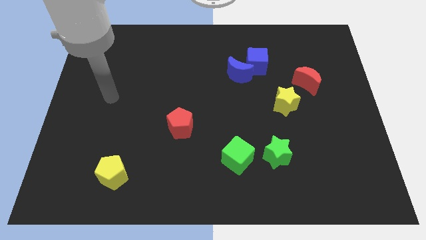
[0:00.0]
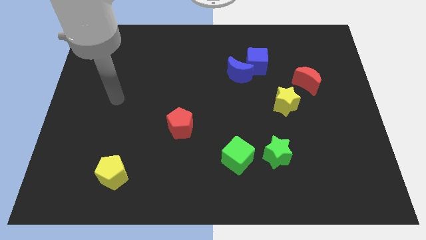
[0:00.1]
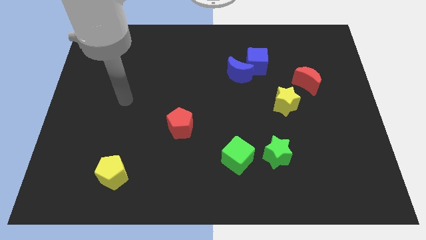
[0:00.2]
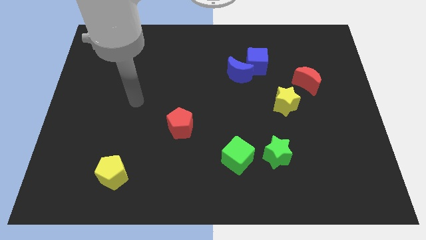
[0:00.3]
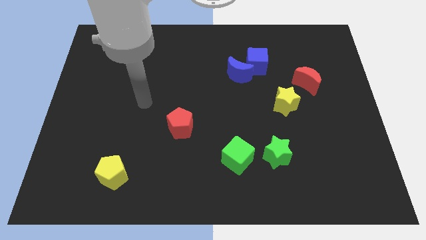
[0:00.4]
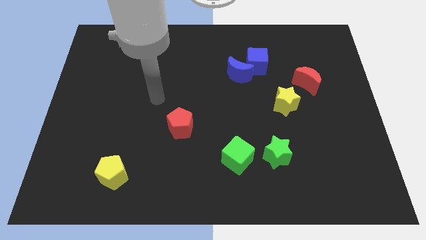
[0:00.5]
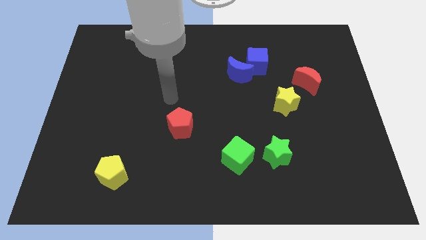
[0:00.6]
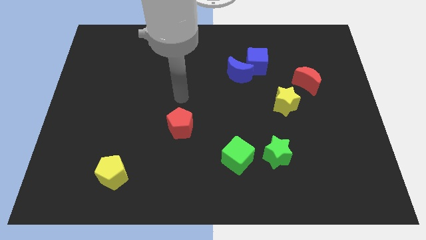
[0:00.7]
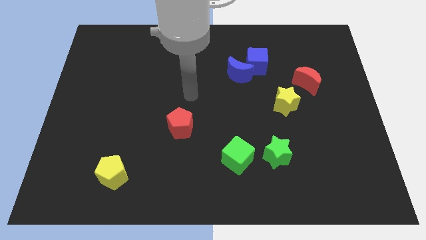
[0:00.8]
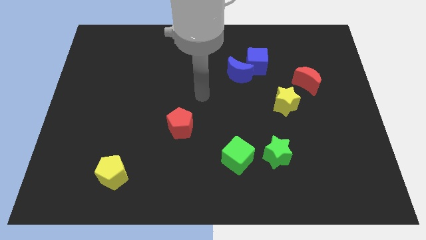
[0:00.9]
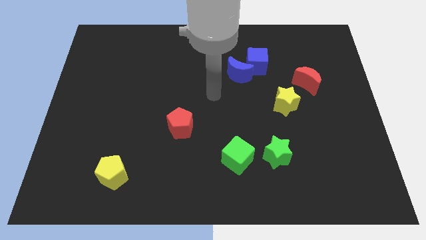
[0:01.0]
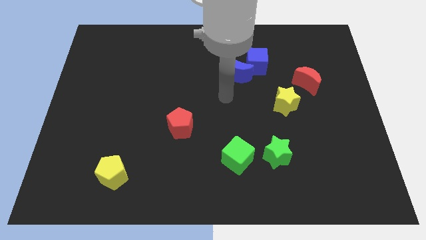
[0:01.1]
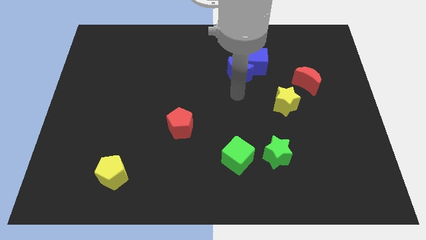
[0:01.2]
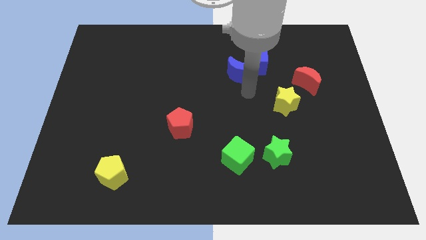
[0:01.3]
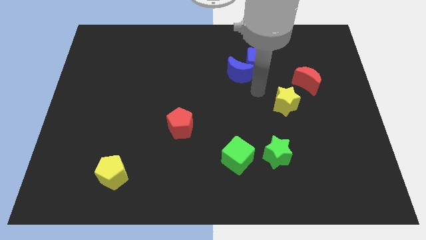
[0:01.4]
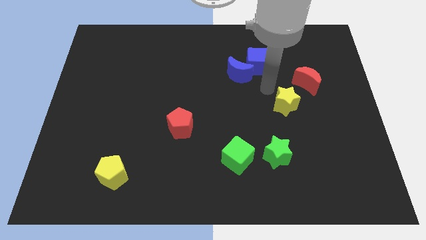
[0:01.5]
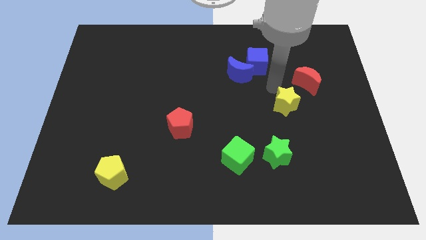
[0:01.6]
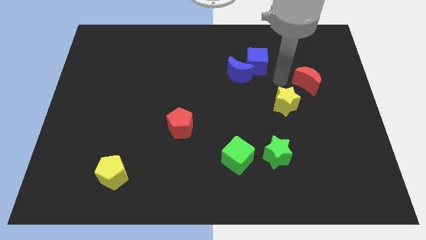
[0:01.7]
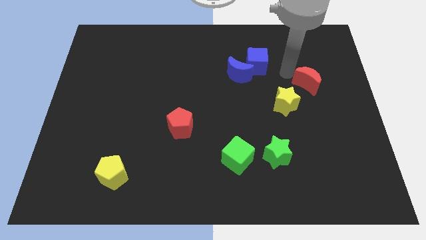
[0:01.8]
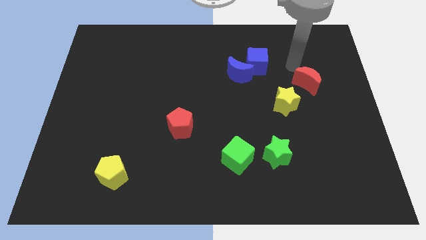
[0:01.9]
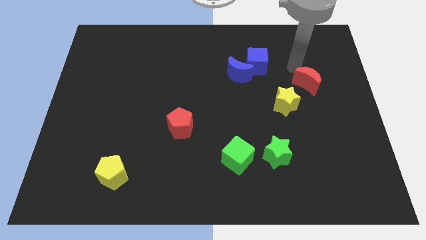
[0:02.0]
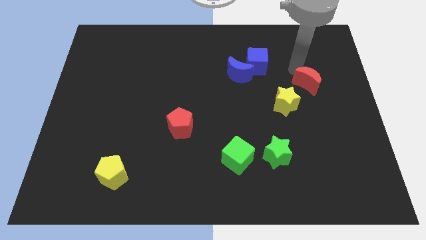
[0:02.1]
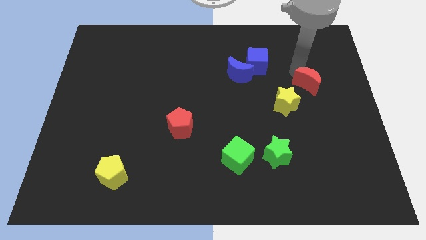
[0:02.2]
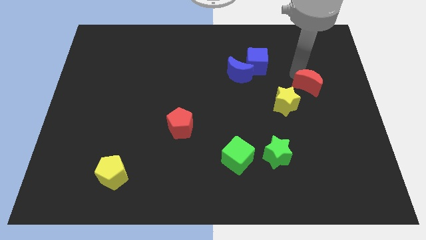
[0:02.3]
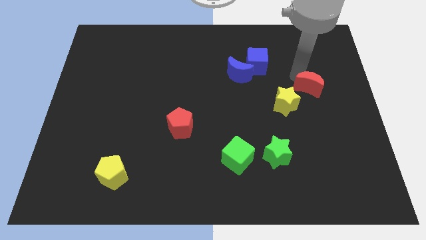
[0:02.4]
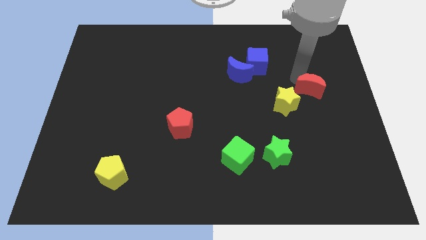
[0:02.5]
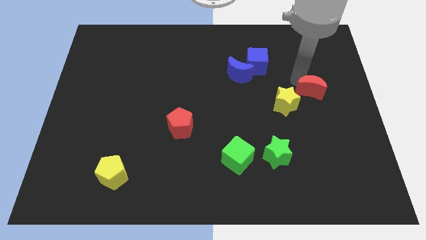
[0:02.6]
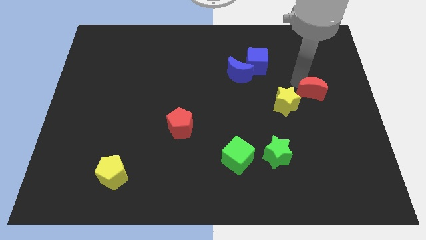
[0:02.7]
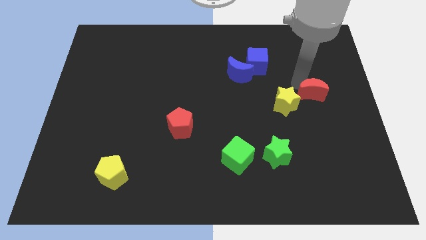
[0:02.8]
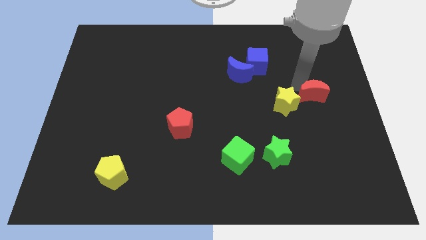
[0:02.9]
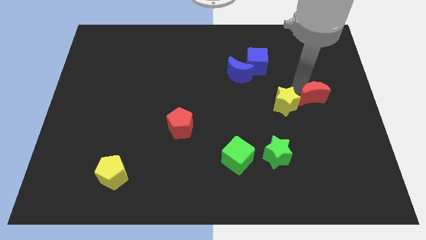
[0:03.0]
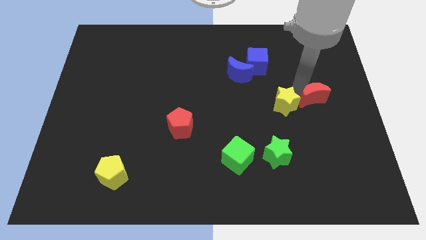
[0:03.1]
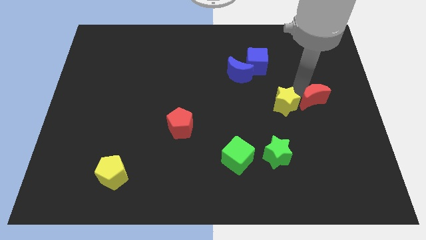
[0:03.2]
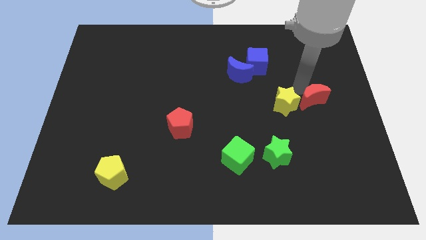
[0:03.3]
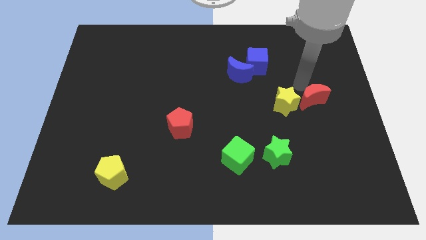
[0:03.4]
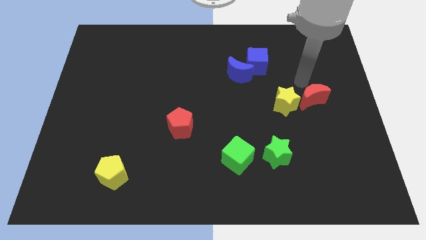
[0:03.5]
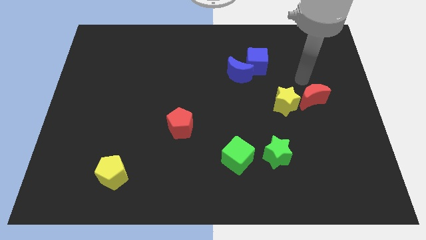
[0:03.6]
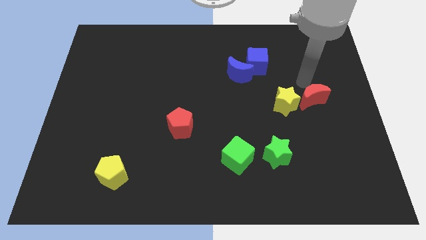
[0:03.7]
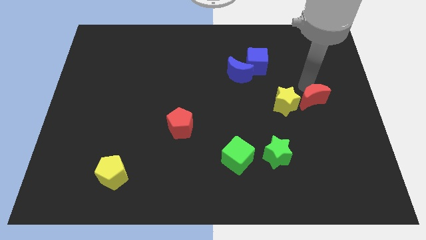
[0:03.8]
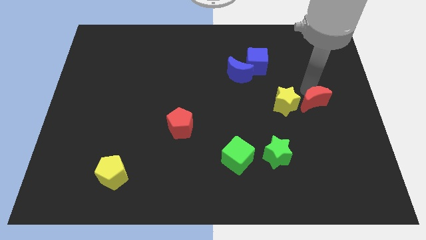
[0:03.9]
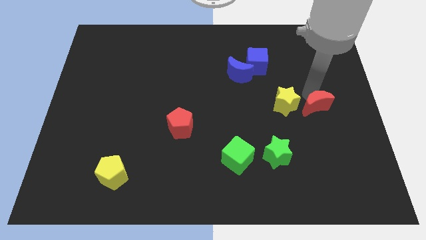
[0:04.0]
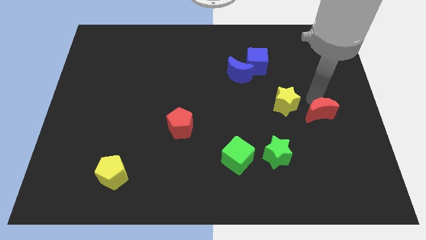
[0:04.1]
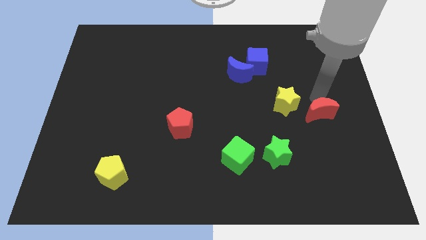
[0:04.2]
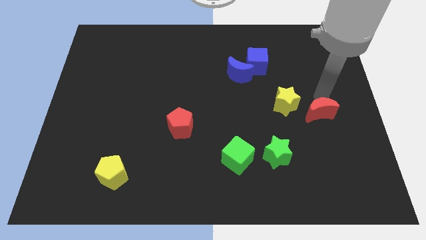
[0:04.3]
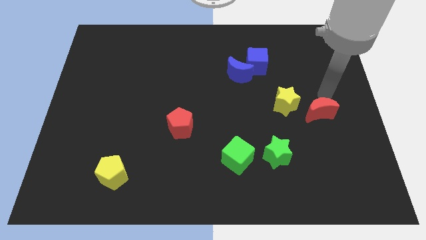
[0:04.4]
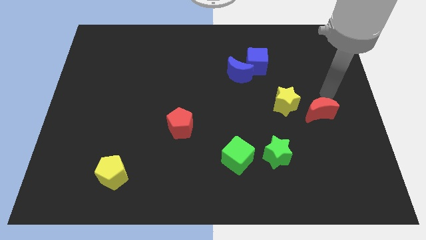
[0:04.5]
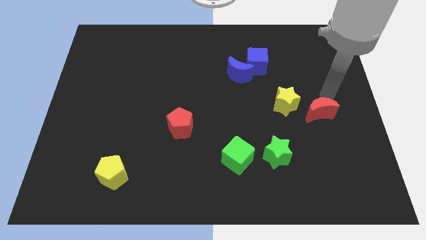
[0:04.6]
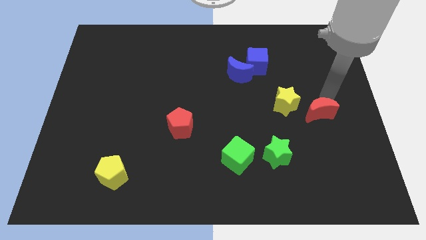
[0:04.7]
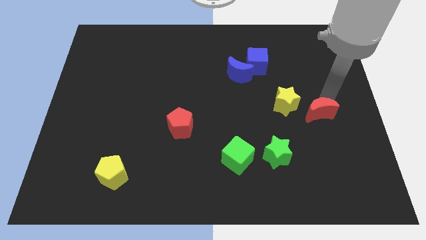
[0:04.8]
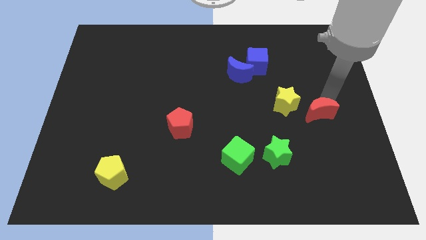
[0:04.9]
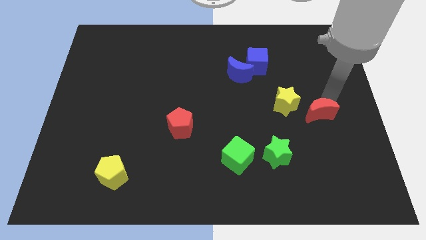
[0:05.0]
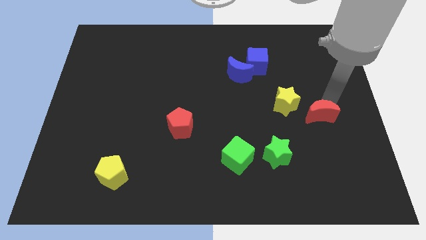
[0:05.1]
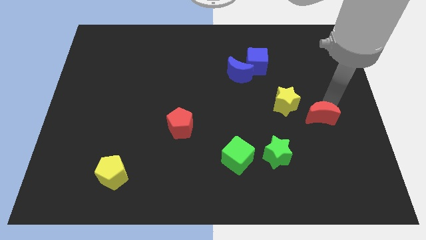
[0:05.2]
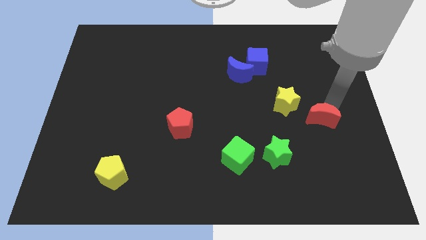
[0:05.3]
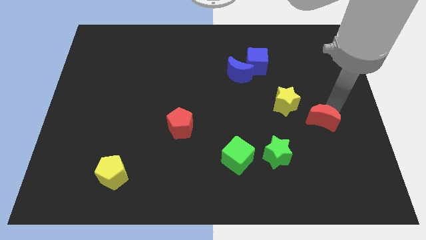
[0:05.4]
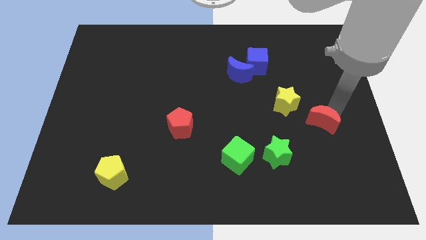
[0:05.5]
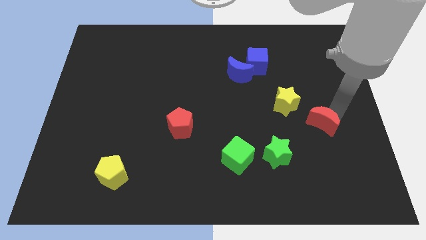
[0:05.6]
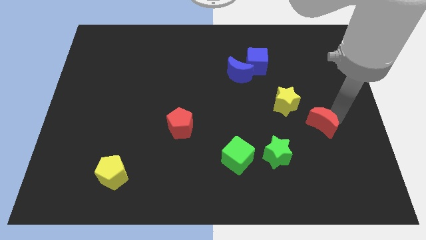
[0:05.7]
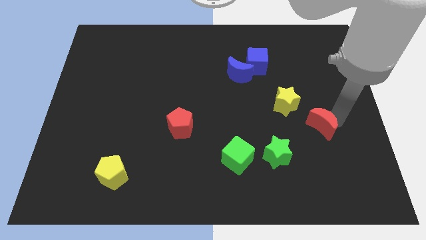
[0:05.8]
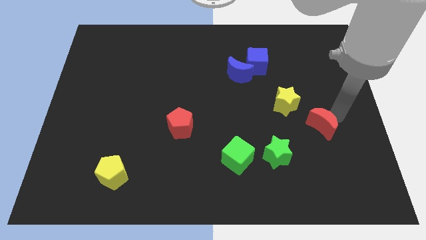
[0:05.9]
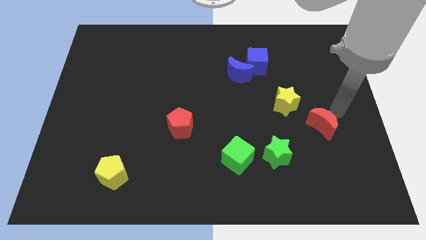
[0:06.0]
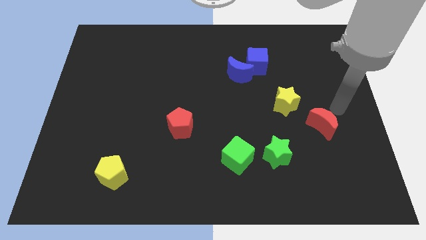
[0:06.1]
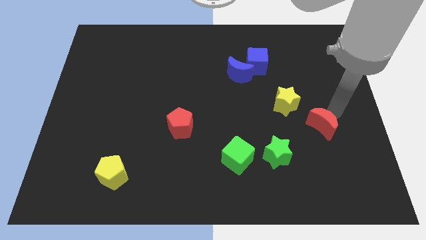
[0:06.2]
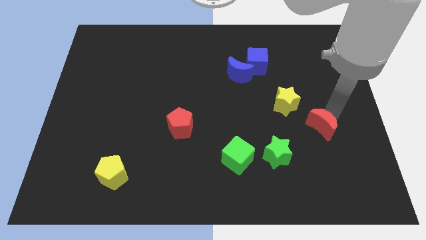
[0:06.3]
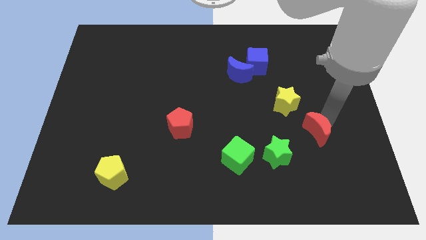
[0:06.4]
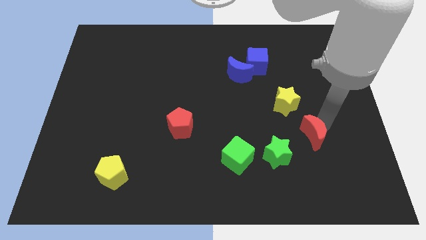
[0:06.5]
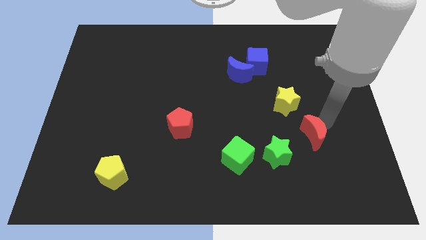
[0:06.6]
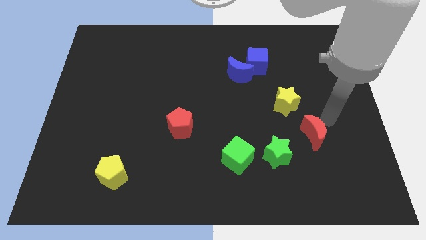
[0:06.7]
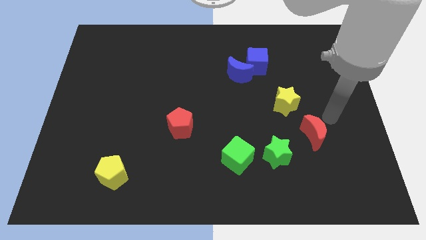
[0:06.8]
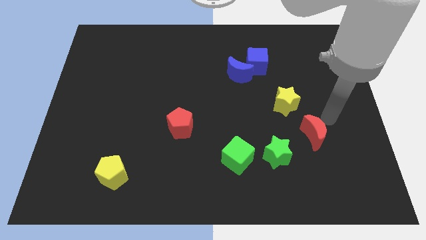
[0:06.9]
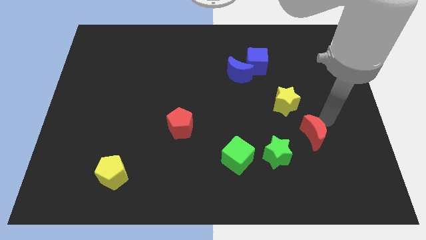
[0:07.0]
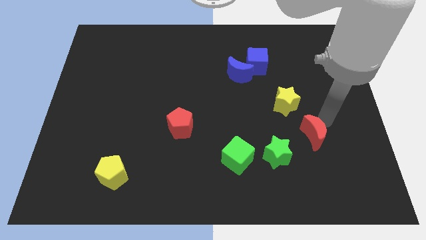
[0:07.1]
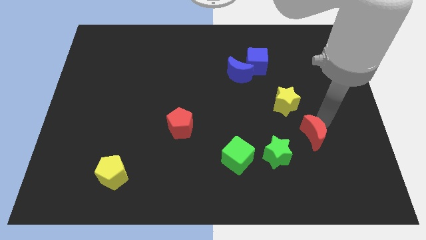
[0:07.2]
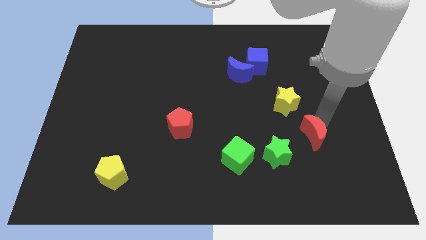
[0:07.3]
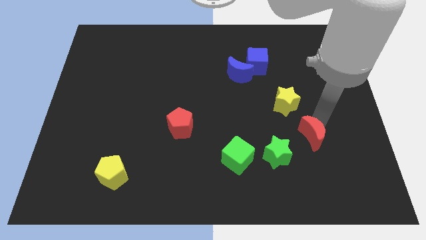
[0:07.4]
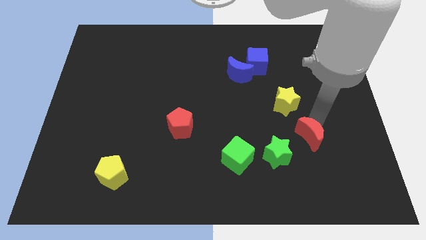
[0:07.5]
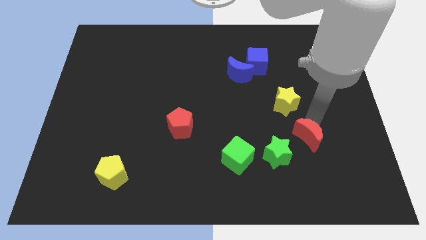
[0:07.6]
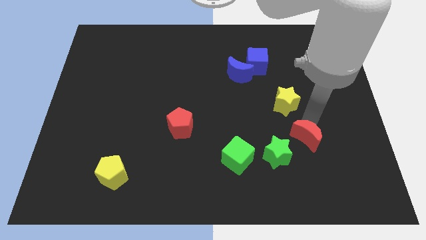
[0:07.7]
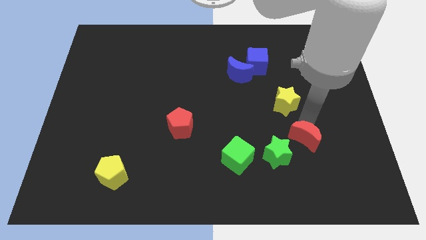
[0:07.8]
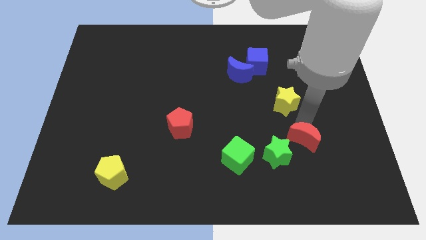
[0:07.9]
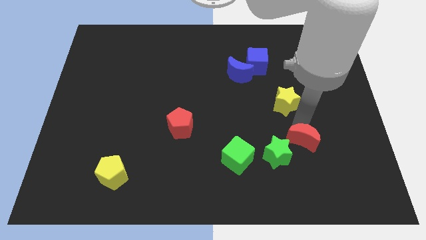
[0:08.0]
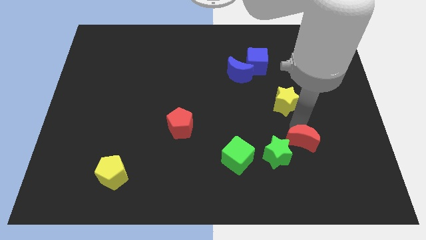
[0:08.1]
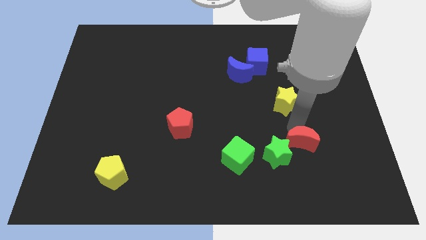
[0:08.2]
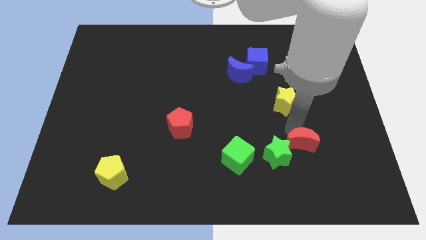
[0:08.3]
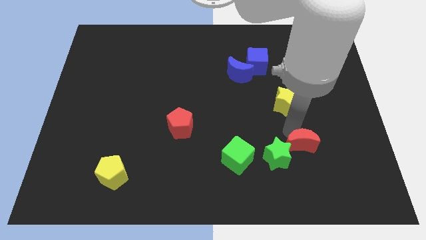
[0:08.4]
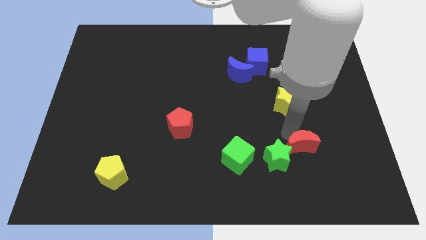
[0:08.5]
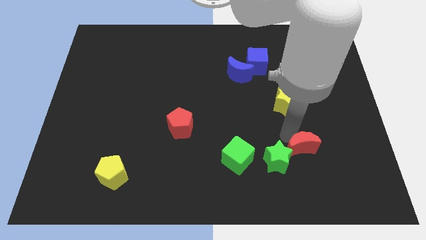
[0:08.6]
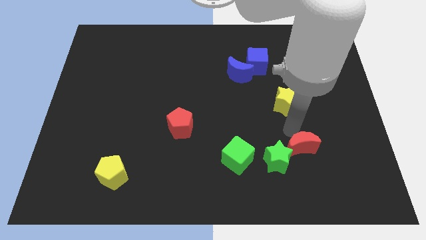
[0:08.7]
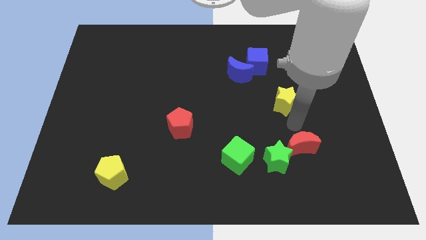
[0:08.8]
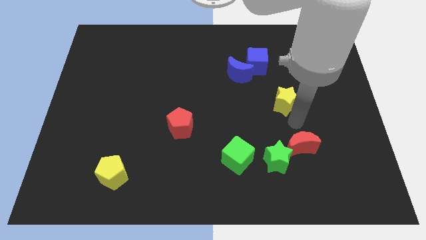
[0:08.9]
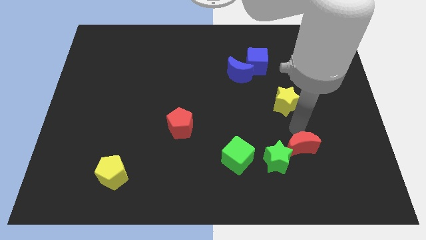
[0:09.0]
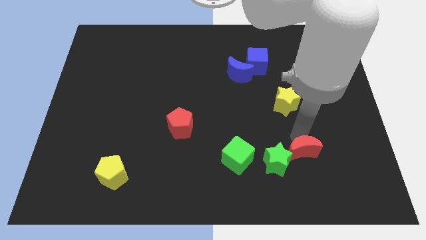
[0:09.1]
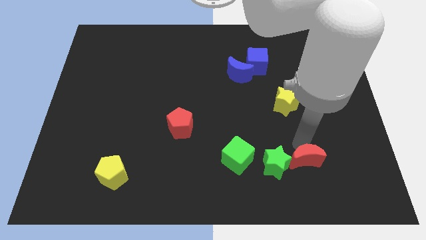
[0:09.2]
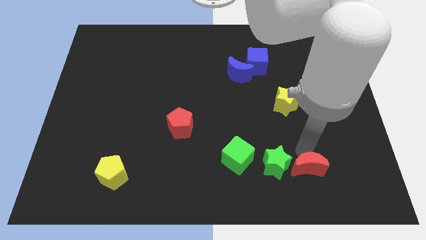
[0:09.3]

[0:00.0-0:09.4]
put the red moon to the bottom right side of the green star
